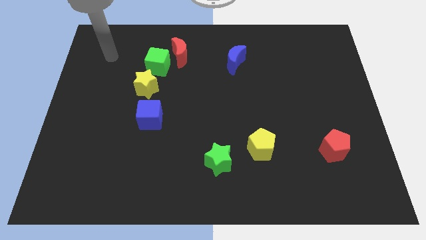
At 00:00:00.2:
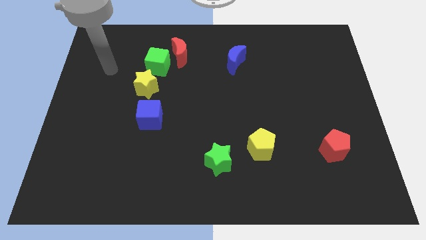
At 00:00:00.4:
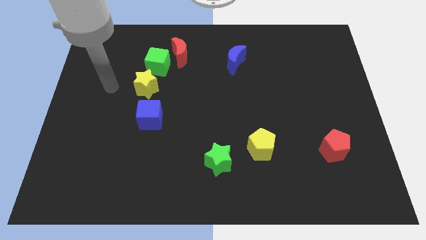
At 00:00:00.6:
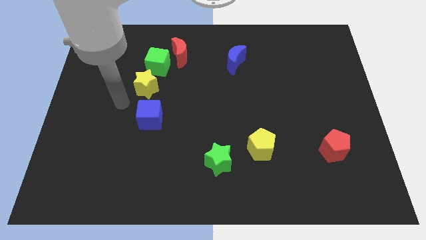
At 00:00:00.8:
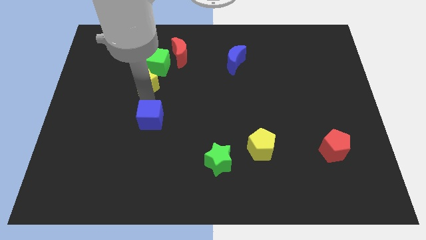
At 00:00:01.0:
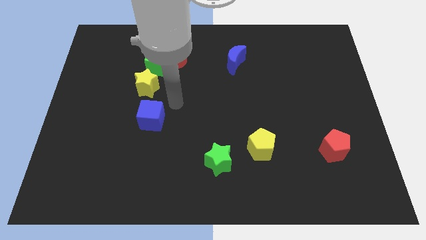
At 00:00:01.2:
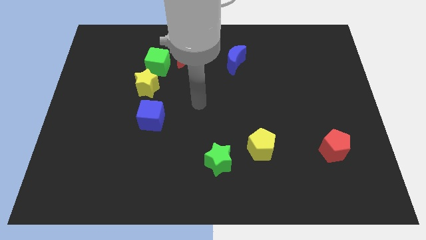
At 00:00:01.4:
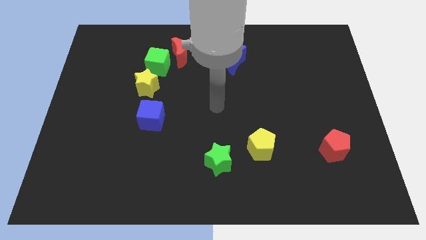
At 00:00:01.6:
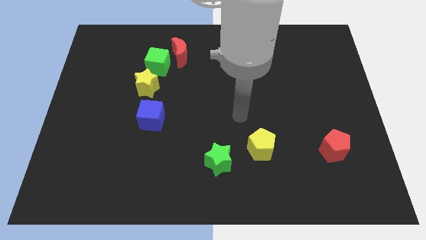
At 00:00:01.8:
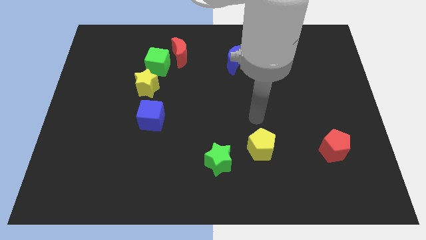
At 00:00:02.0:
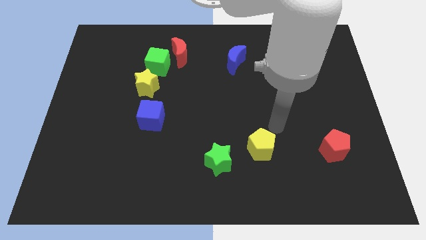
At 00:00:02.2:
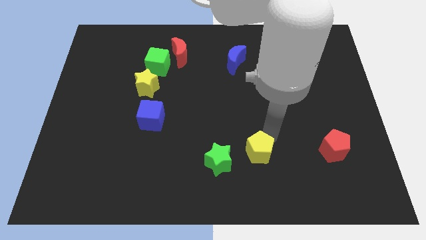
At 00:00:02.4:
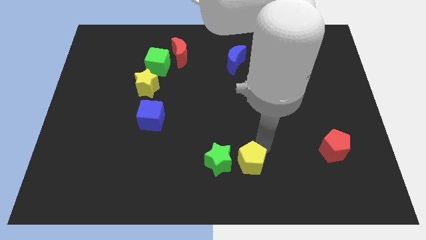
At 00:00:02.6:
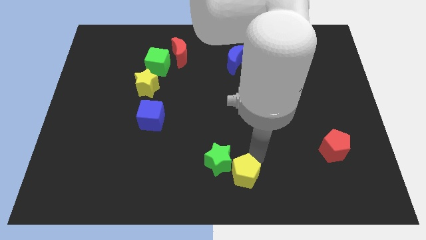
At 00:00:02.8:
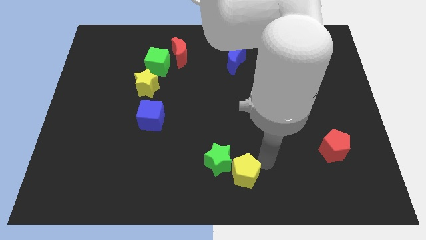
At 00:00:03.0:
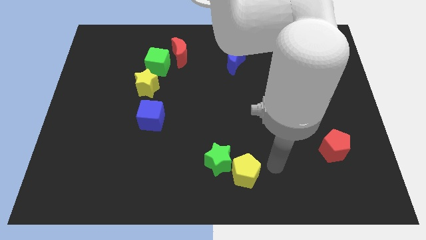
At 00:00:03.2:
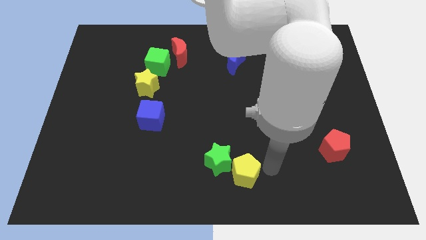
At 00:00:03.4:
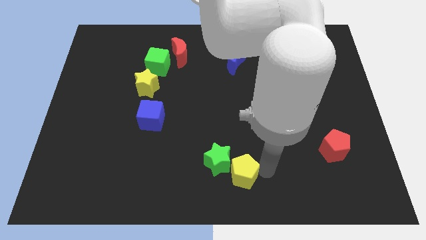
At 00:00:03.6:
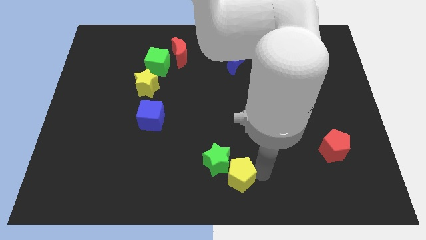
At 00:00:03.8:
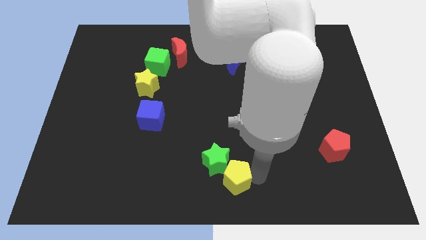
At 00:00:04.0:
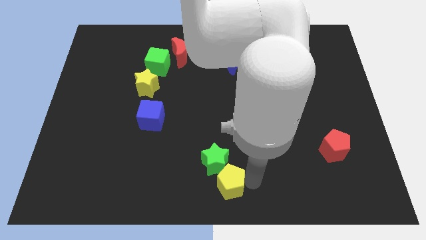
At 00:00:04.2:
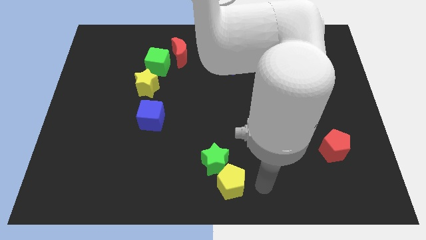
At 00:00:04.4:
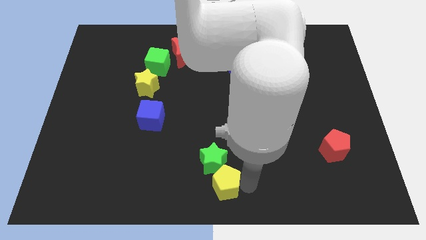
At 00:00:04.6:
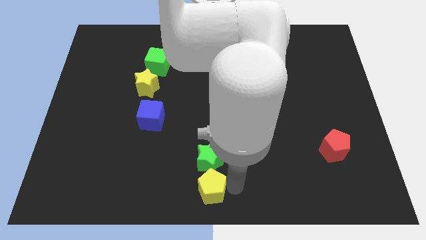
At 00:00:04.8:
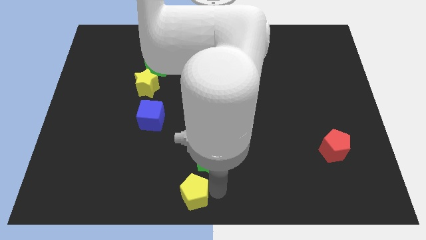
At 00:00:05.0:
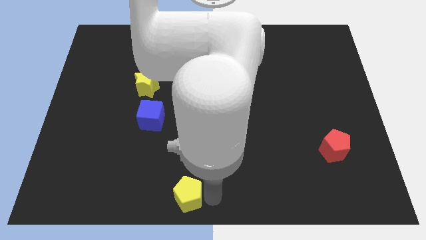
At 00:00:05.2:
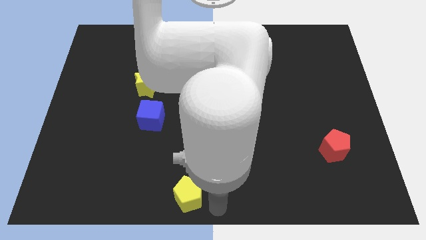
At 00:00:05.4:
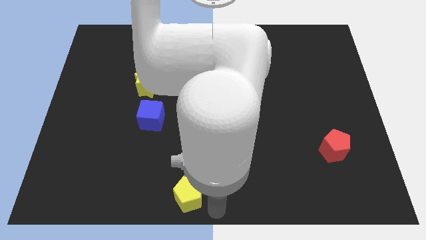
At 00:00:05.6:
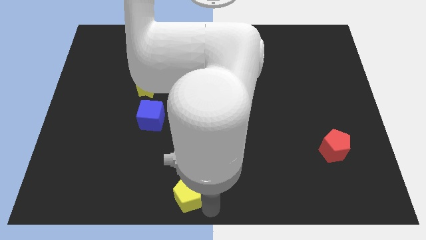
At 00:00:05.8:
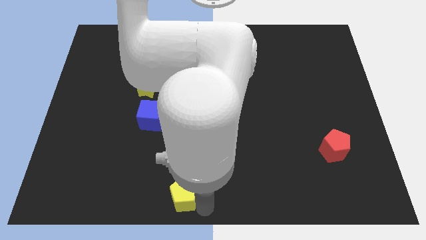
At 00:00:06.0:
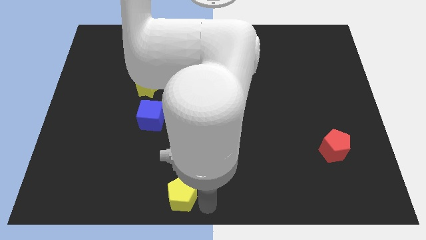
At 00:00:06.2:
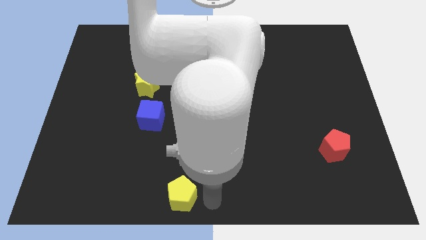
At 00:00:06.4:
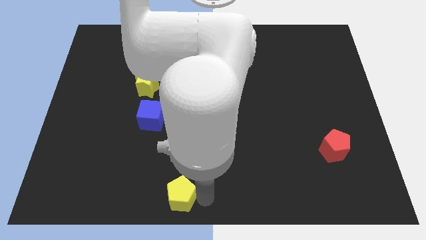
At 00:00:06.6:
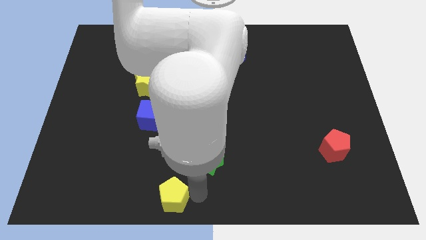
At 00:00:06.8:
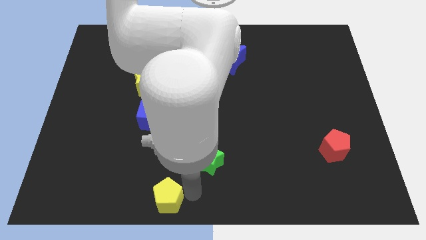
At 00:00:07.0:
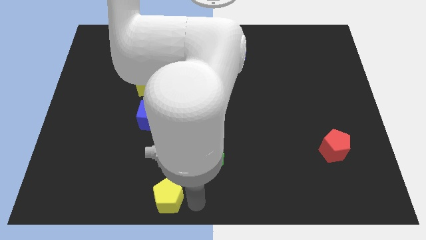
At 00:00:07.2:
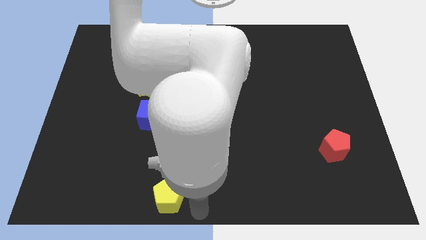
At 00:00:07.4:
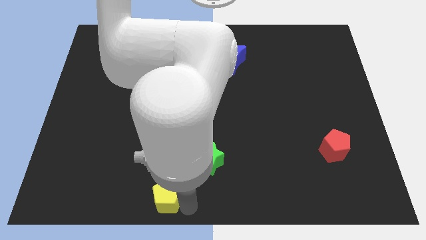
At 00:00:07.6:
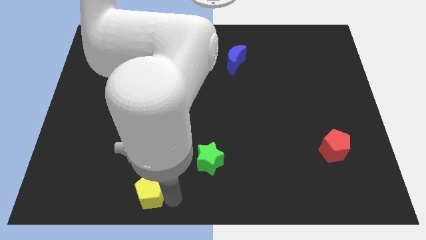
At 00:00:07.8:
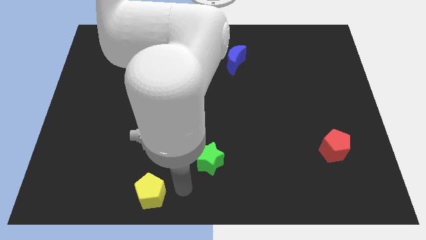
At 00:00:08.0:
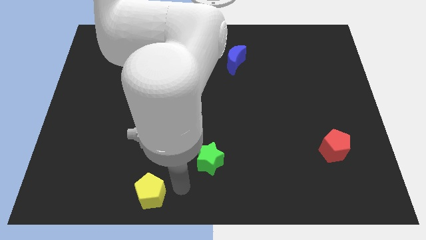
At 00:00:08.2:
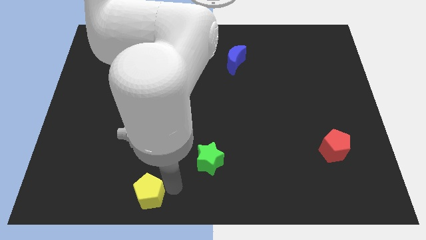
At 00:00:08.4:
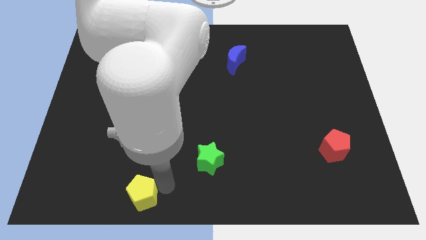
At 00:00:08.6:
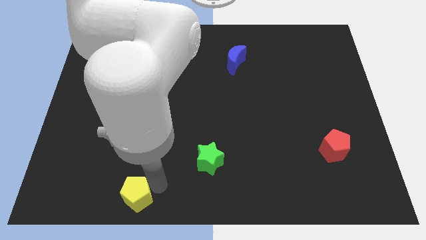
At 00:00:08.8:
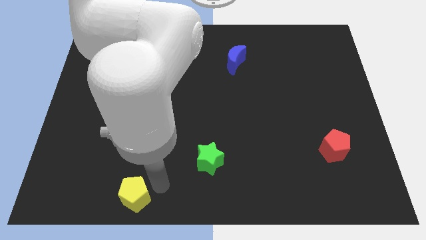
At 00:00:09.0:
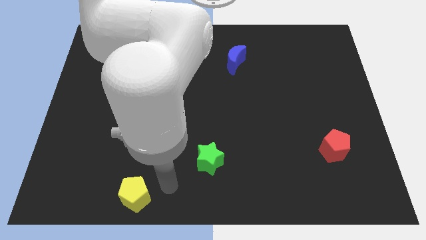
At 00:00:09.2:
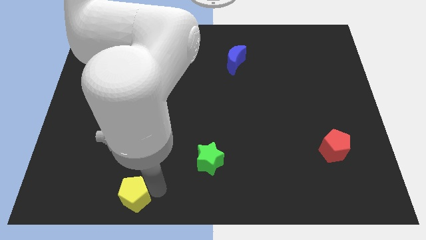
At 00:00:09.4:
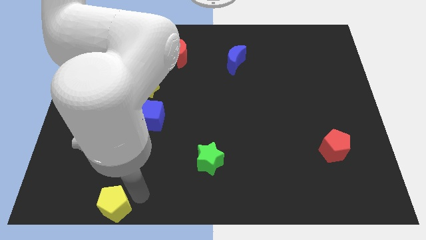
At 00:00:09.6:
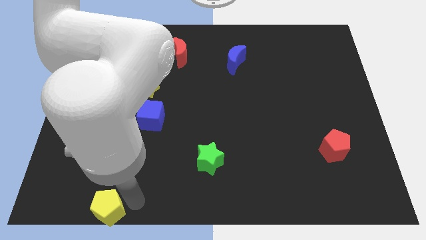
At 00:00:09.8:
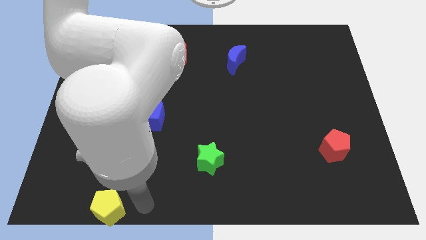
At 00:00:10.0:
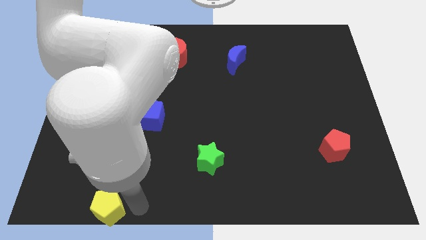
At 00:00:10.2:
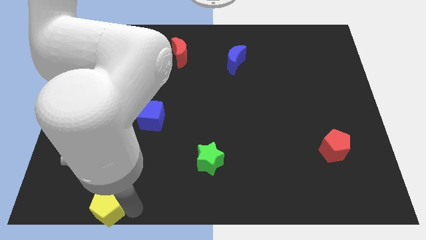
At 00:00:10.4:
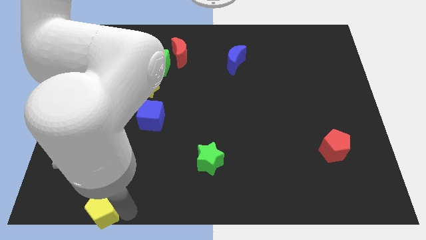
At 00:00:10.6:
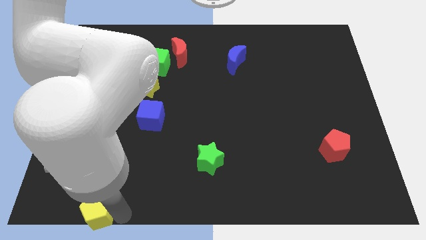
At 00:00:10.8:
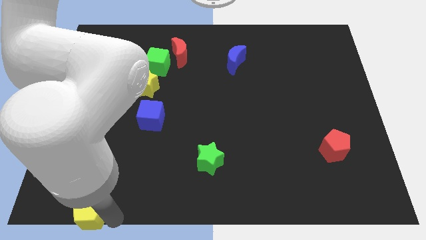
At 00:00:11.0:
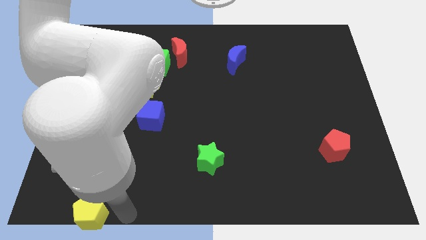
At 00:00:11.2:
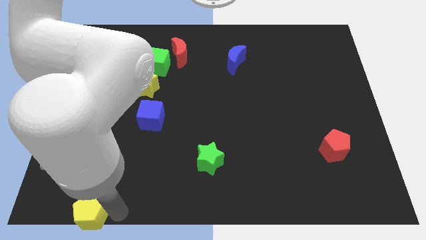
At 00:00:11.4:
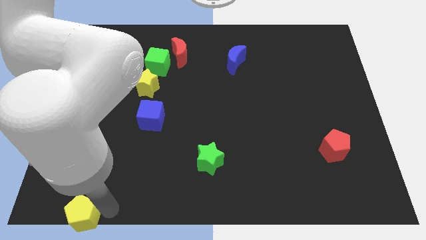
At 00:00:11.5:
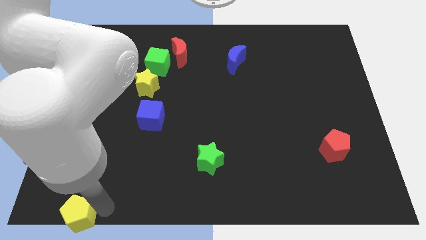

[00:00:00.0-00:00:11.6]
push the yellow pentagon to the lower left corner

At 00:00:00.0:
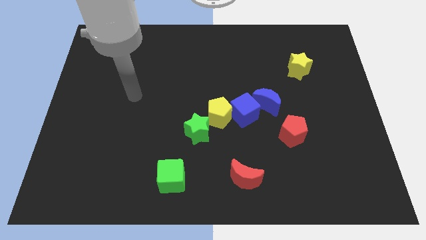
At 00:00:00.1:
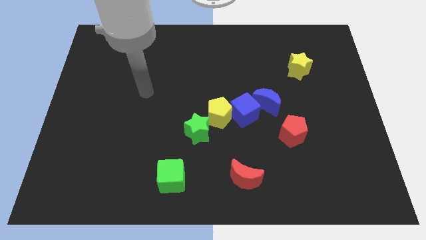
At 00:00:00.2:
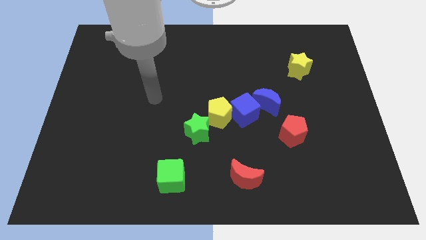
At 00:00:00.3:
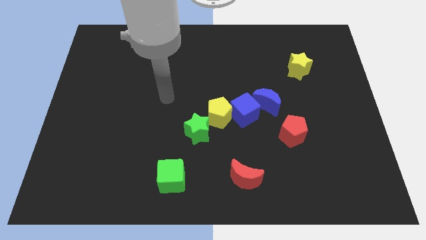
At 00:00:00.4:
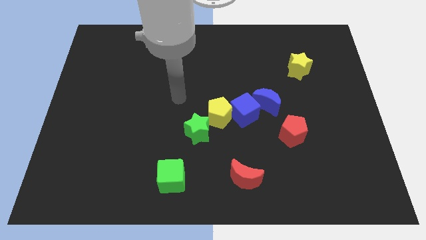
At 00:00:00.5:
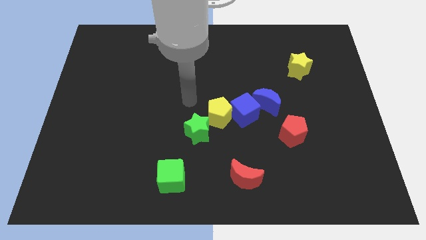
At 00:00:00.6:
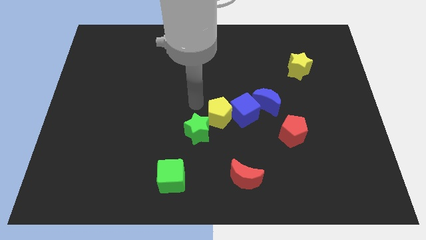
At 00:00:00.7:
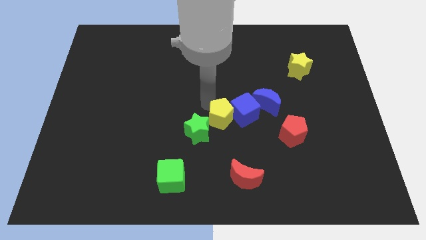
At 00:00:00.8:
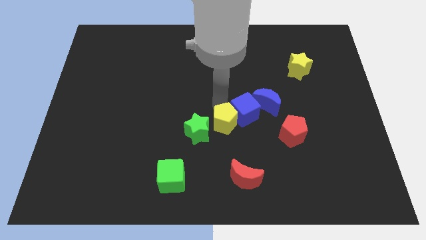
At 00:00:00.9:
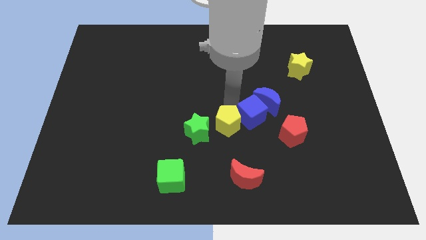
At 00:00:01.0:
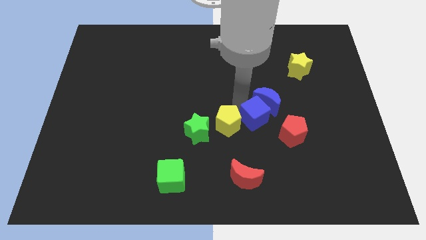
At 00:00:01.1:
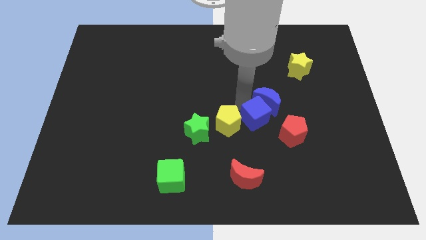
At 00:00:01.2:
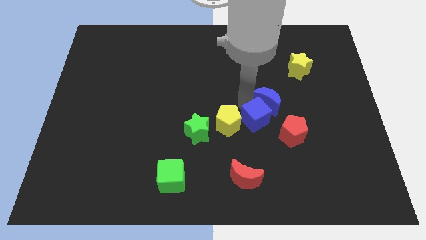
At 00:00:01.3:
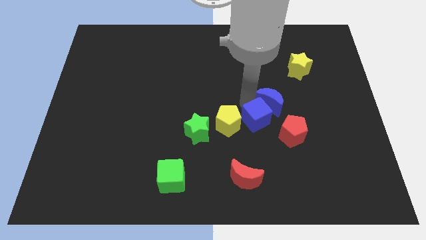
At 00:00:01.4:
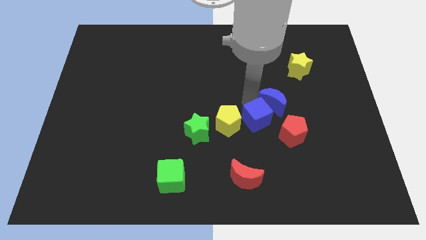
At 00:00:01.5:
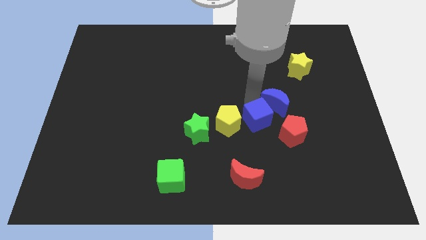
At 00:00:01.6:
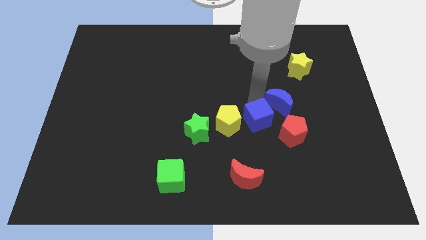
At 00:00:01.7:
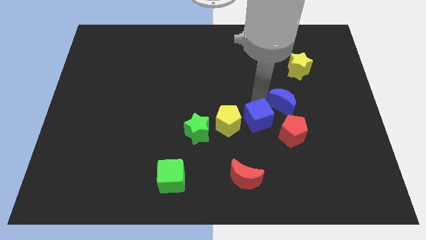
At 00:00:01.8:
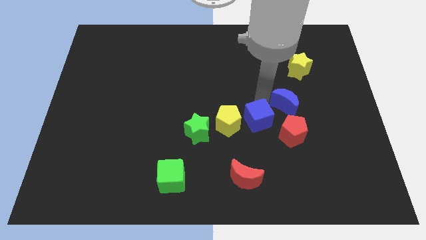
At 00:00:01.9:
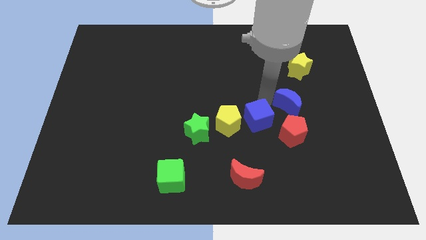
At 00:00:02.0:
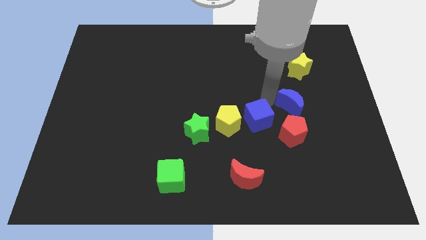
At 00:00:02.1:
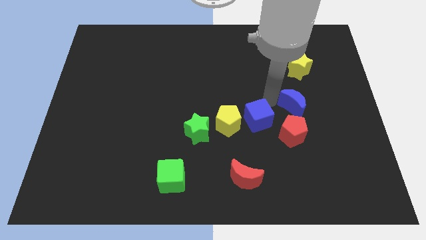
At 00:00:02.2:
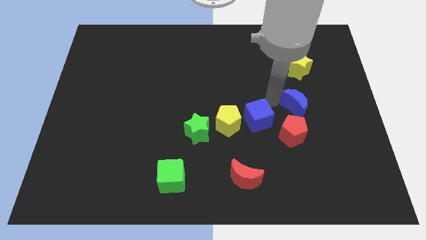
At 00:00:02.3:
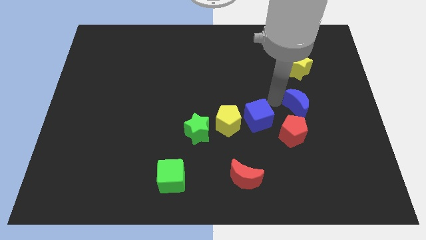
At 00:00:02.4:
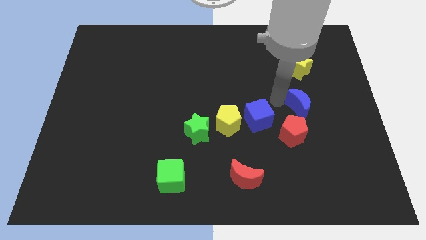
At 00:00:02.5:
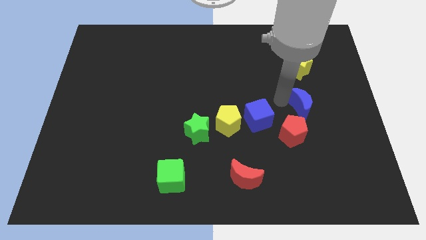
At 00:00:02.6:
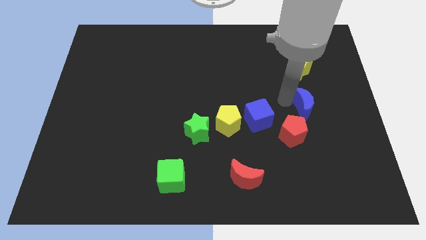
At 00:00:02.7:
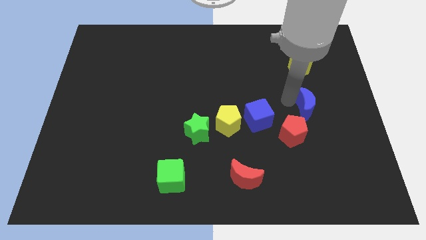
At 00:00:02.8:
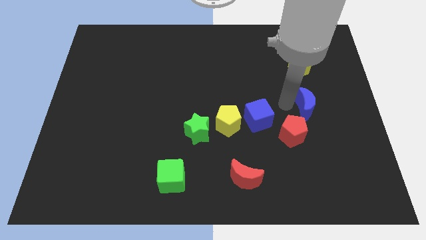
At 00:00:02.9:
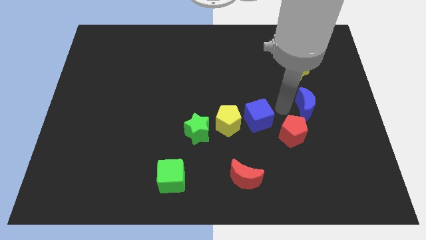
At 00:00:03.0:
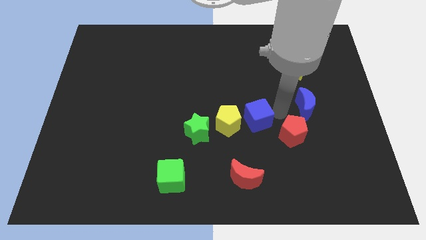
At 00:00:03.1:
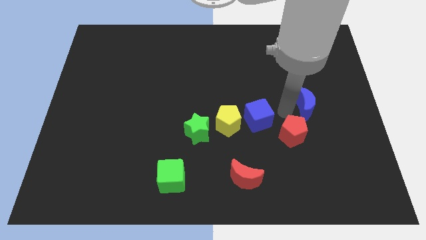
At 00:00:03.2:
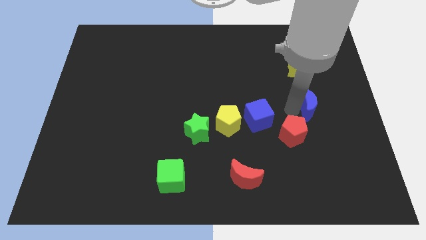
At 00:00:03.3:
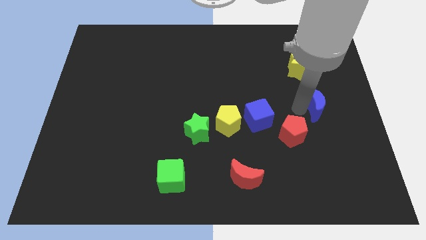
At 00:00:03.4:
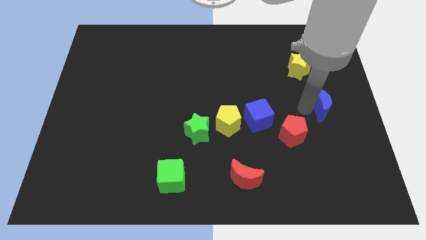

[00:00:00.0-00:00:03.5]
slide the blue moon to the center right
